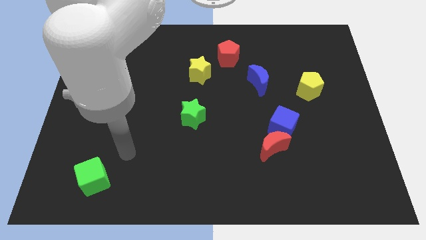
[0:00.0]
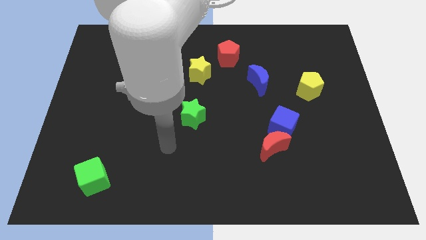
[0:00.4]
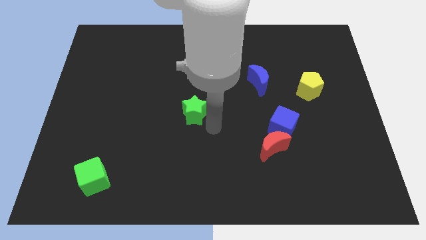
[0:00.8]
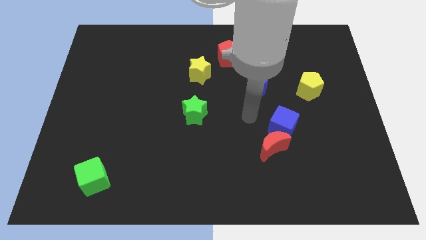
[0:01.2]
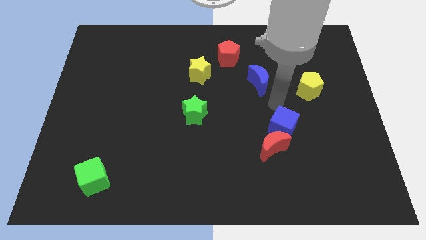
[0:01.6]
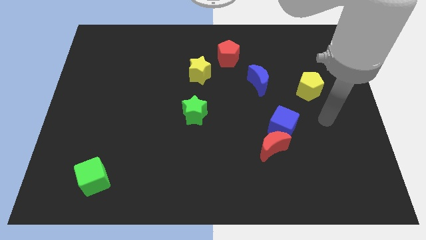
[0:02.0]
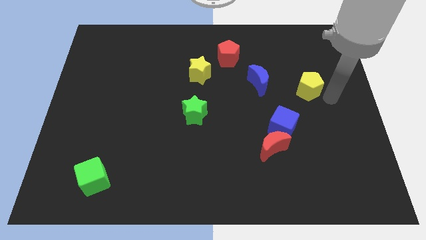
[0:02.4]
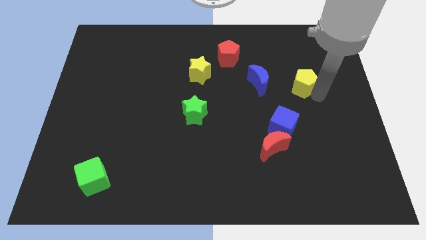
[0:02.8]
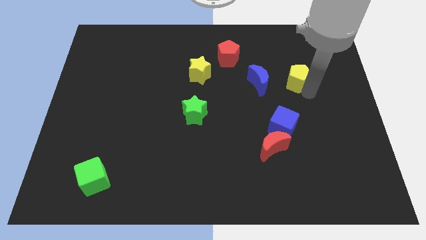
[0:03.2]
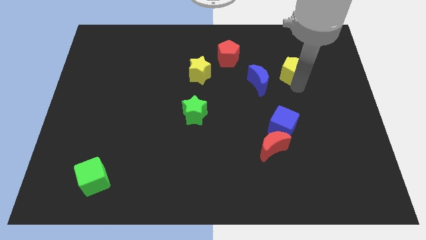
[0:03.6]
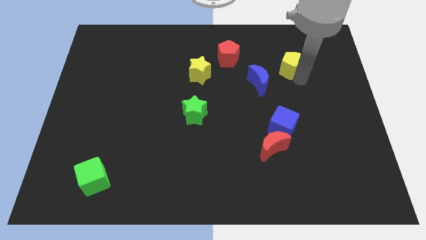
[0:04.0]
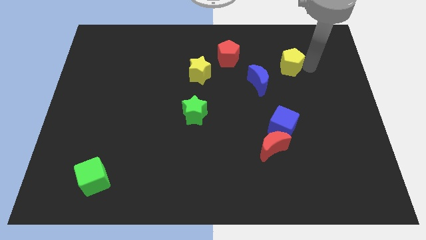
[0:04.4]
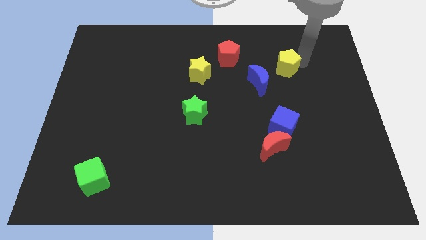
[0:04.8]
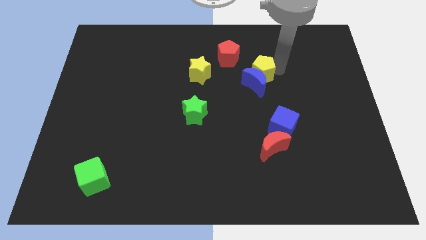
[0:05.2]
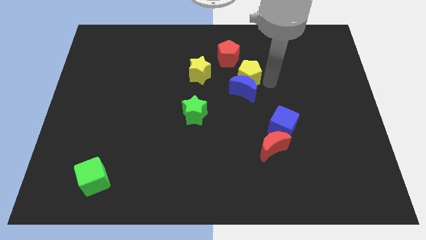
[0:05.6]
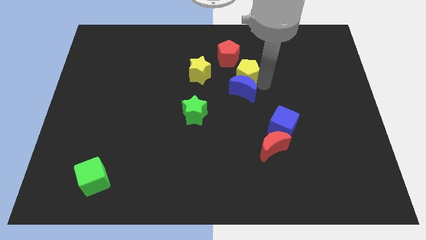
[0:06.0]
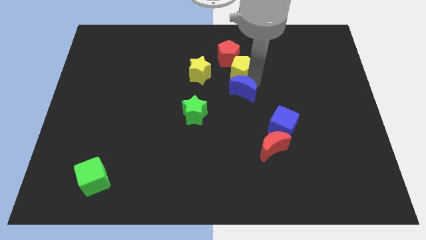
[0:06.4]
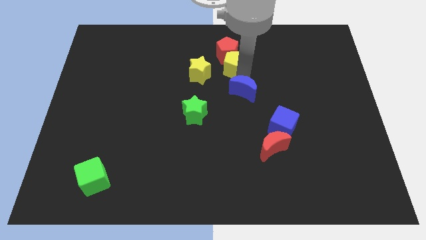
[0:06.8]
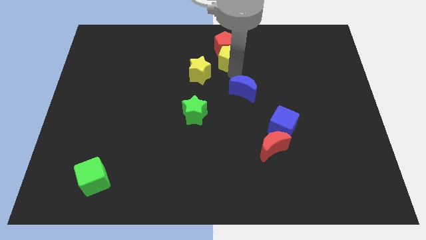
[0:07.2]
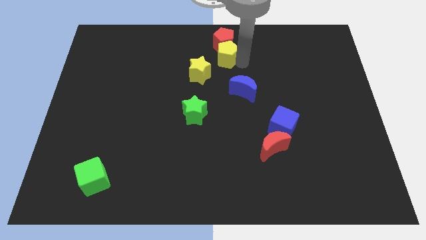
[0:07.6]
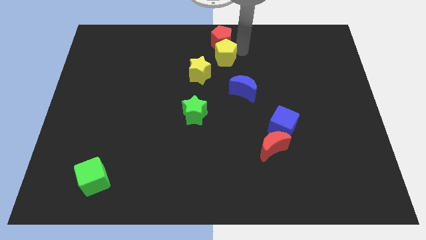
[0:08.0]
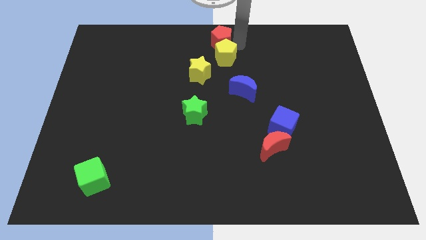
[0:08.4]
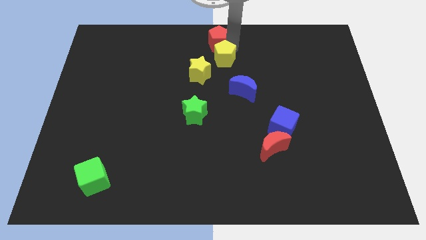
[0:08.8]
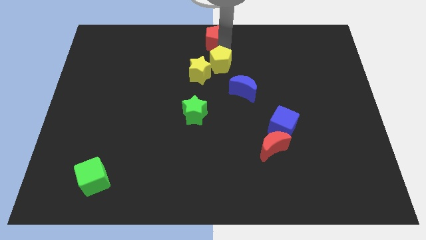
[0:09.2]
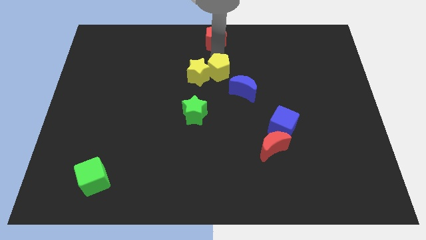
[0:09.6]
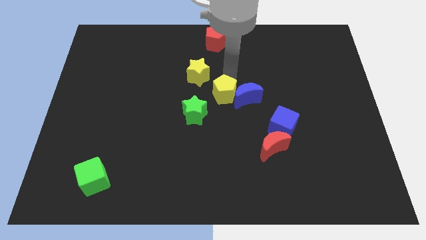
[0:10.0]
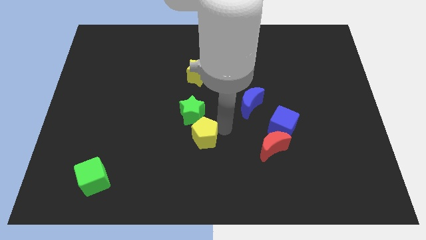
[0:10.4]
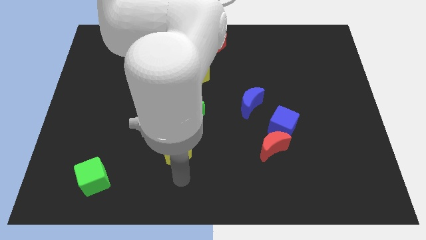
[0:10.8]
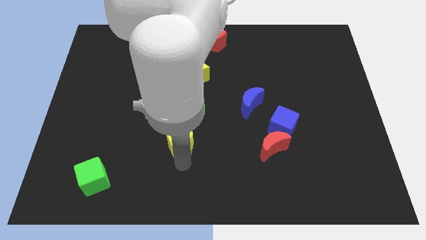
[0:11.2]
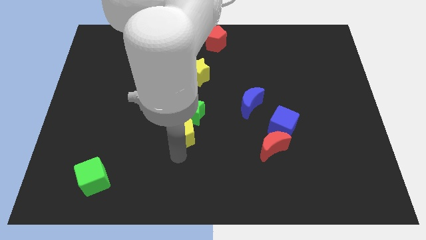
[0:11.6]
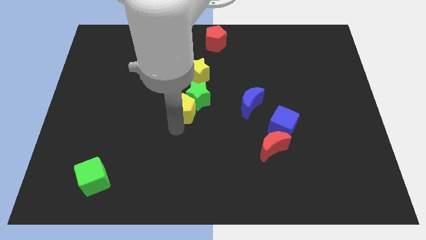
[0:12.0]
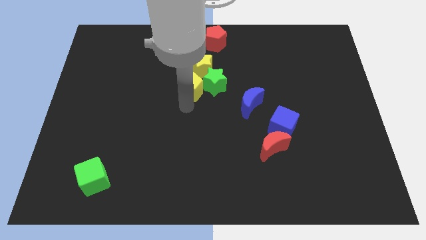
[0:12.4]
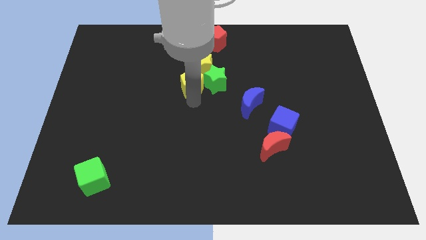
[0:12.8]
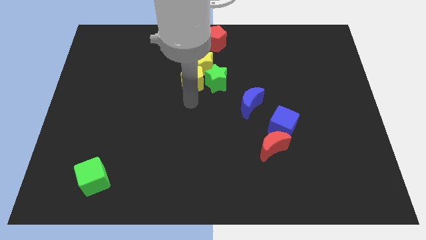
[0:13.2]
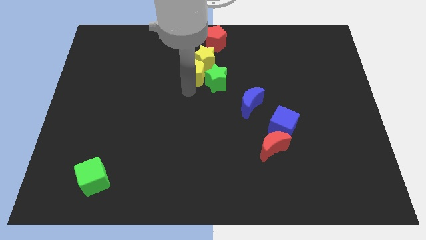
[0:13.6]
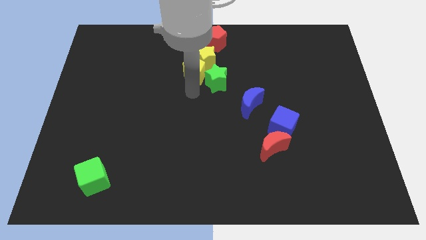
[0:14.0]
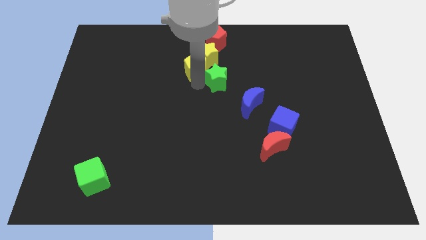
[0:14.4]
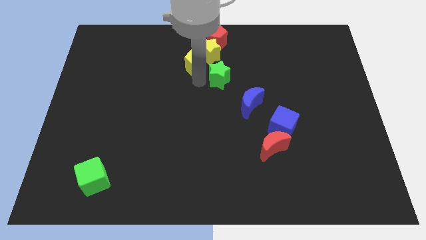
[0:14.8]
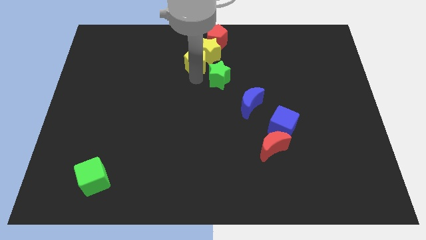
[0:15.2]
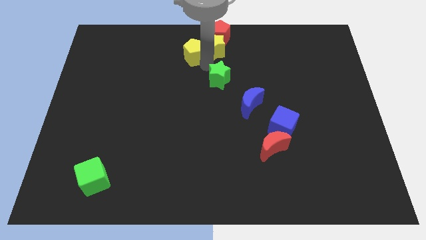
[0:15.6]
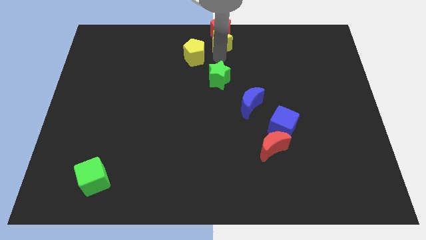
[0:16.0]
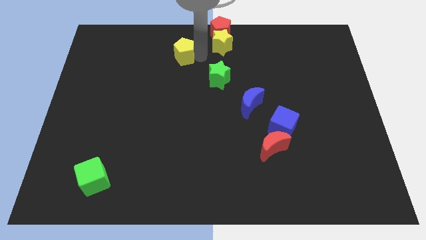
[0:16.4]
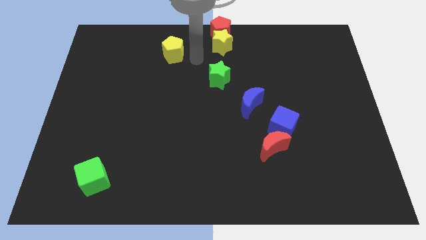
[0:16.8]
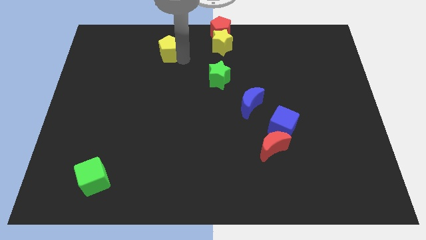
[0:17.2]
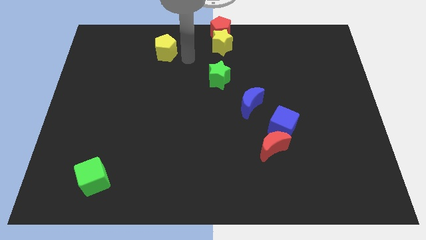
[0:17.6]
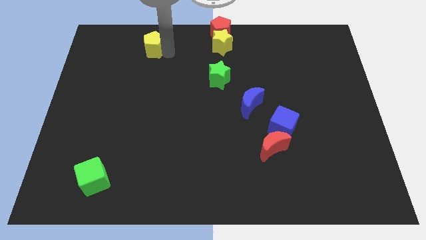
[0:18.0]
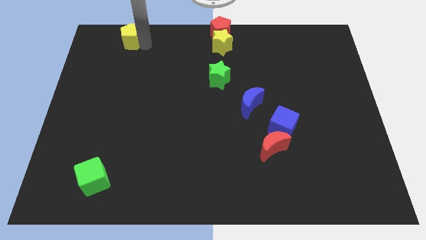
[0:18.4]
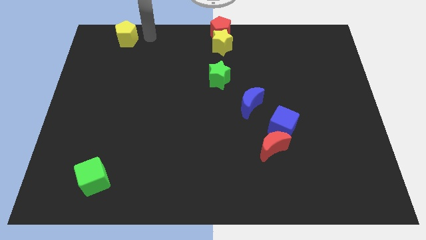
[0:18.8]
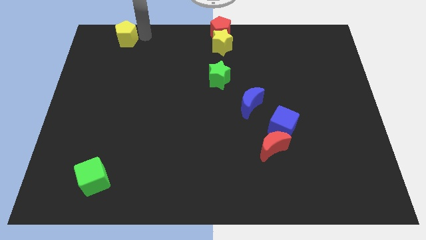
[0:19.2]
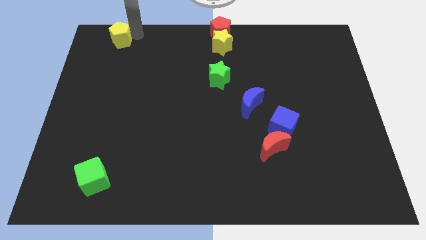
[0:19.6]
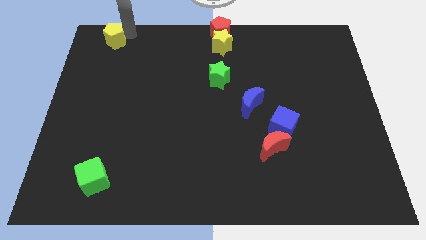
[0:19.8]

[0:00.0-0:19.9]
push the yellow pentagon to the upper left corner

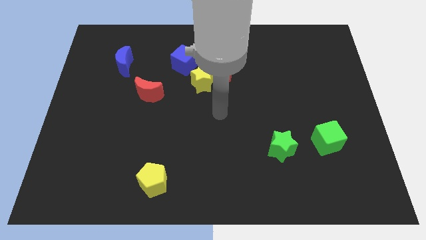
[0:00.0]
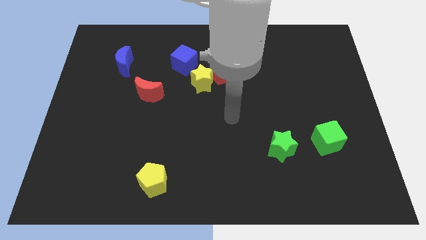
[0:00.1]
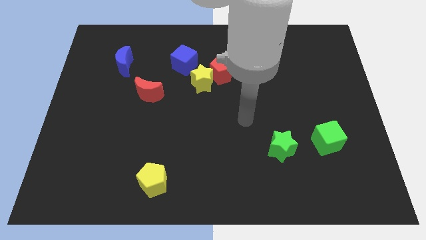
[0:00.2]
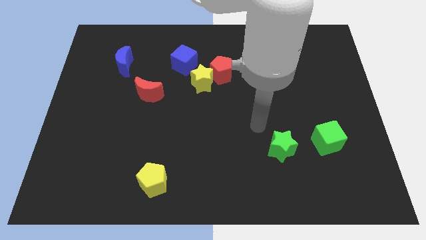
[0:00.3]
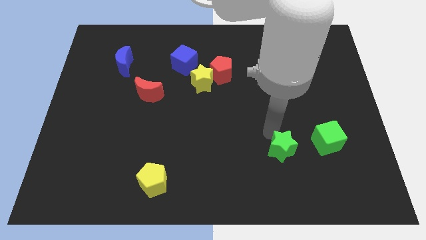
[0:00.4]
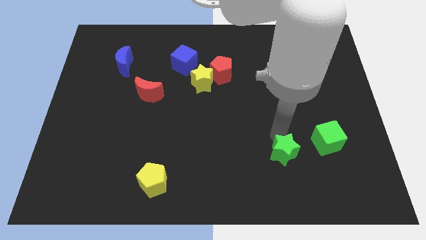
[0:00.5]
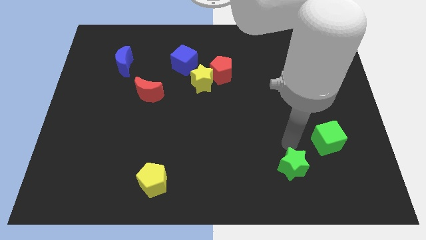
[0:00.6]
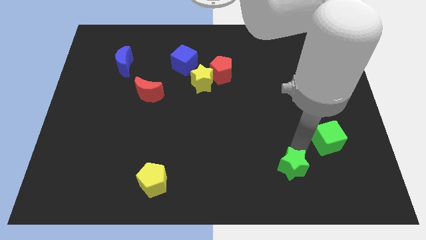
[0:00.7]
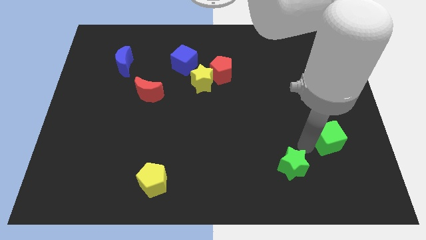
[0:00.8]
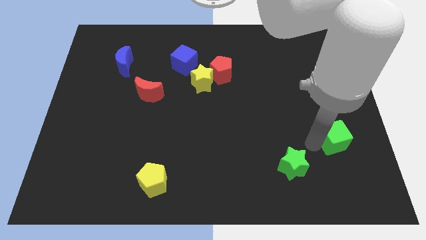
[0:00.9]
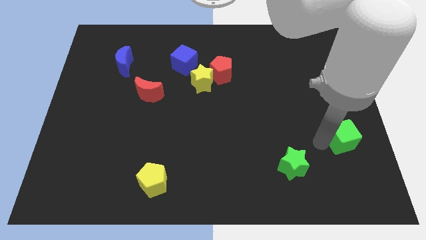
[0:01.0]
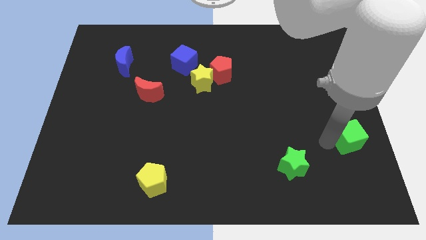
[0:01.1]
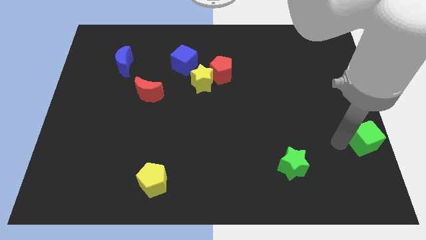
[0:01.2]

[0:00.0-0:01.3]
move the green cube to the center right

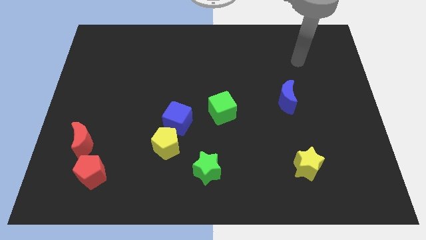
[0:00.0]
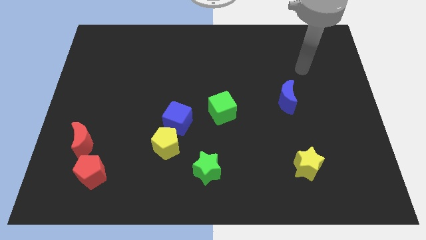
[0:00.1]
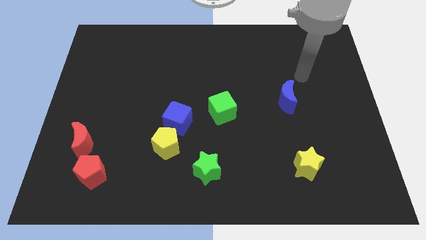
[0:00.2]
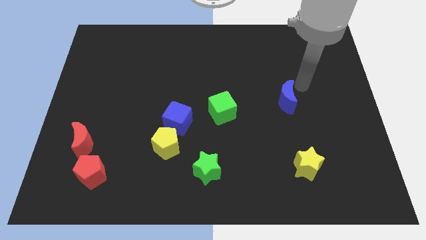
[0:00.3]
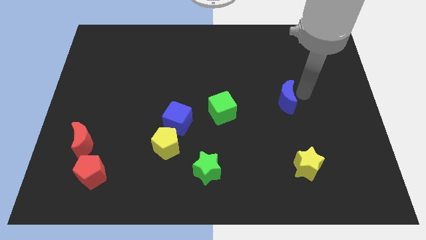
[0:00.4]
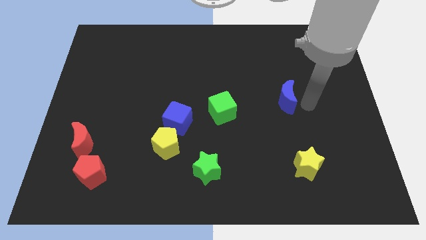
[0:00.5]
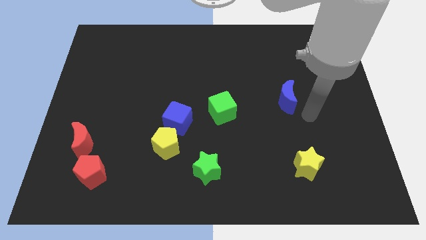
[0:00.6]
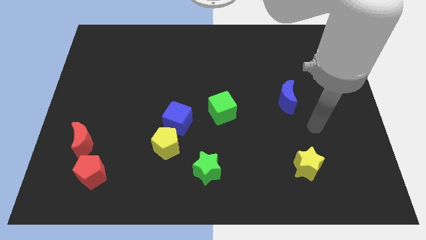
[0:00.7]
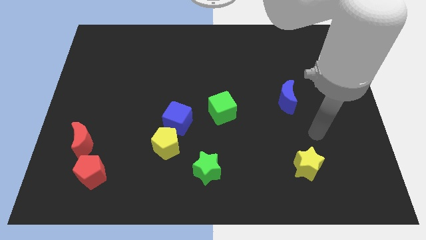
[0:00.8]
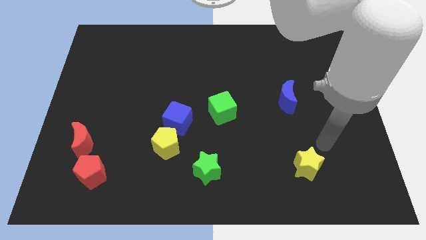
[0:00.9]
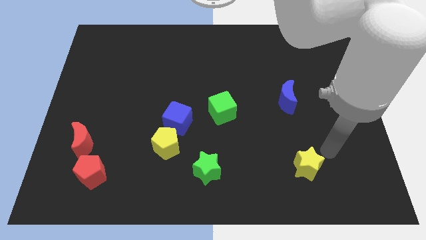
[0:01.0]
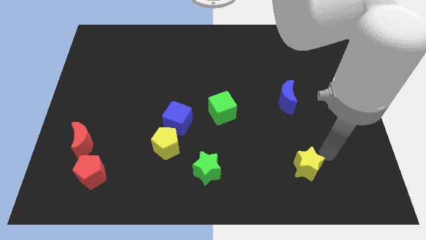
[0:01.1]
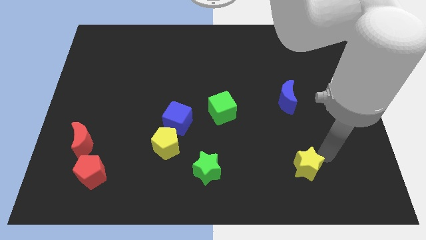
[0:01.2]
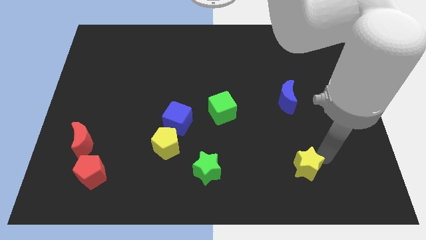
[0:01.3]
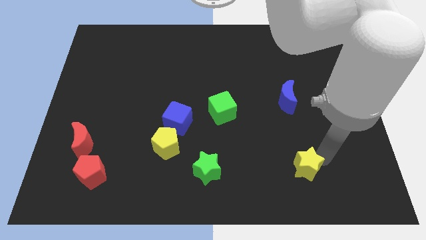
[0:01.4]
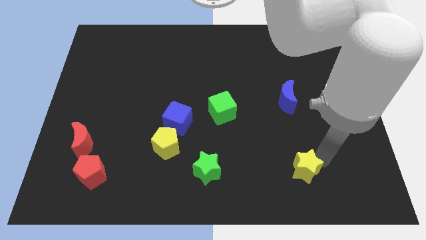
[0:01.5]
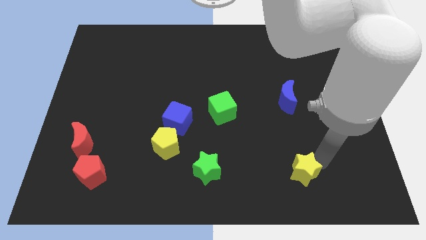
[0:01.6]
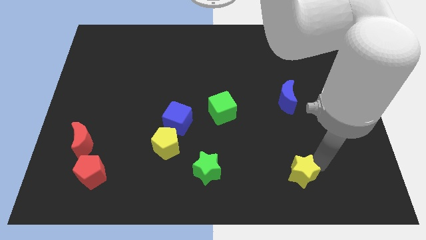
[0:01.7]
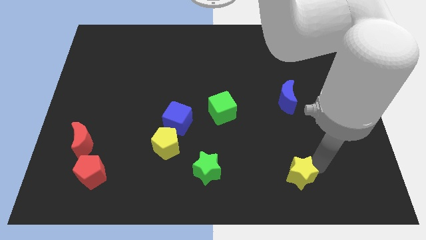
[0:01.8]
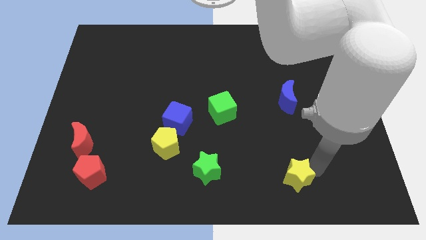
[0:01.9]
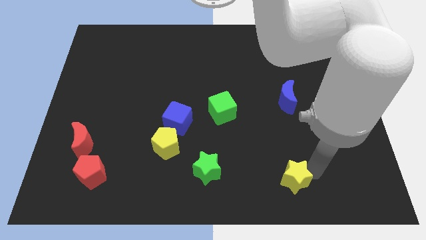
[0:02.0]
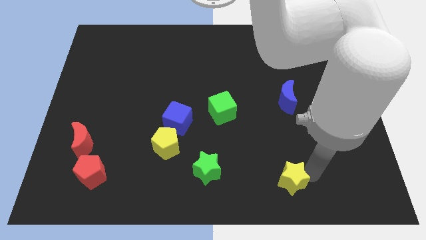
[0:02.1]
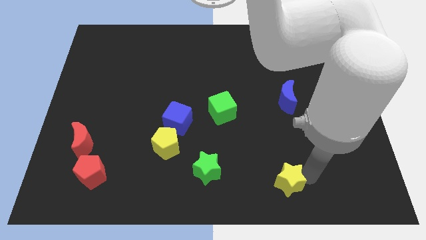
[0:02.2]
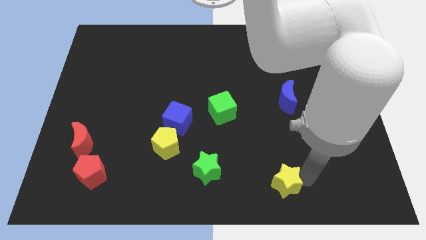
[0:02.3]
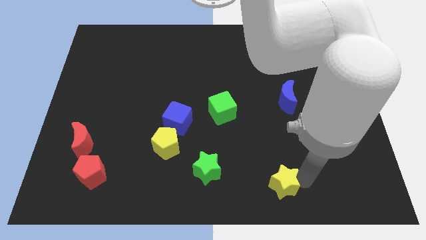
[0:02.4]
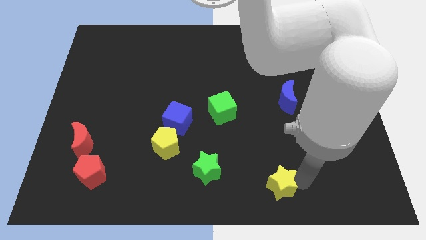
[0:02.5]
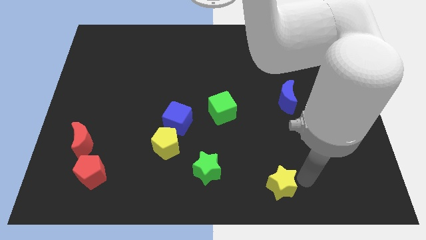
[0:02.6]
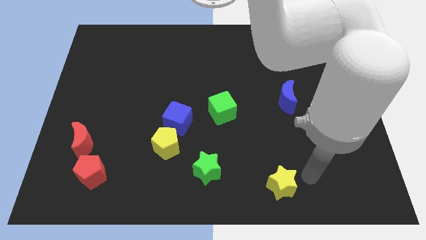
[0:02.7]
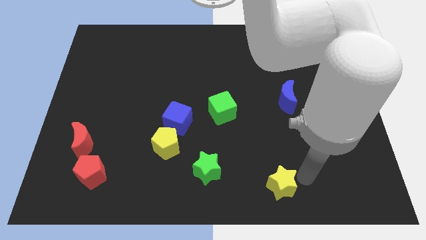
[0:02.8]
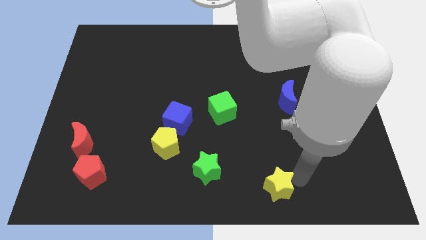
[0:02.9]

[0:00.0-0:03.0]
put the yellow star to the bottom
